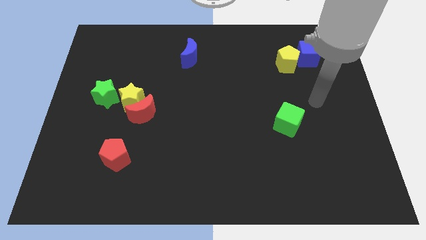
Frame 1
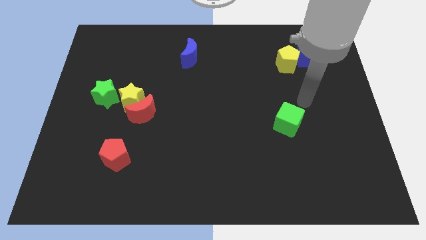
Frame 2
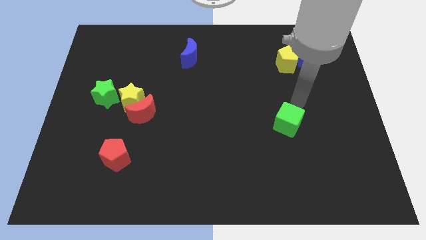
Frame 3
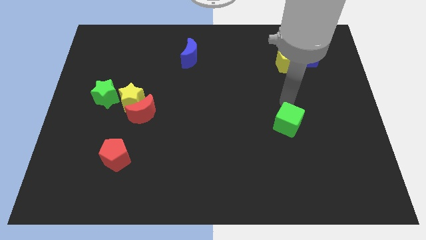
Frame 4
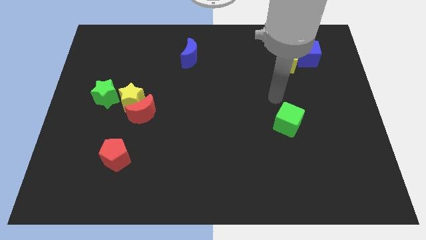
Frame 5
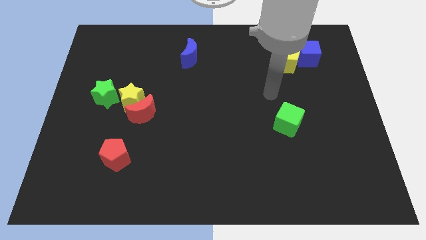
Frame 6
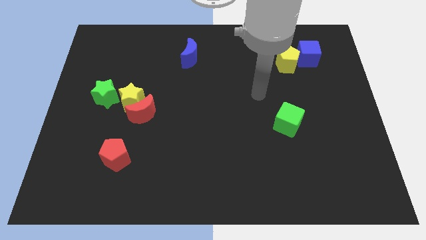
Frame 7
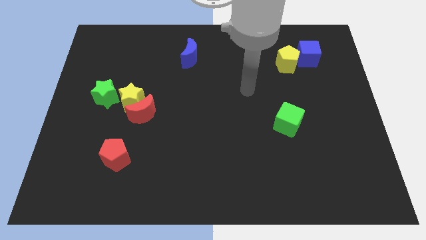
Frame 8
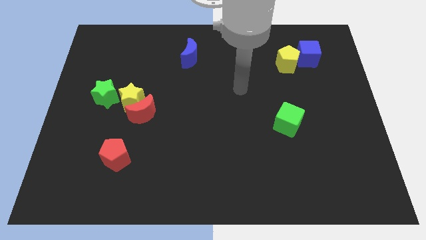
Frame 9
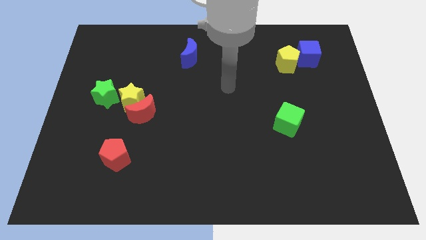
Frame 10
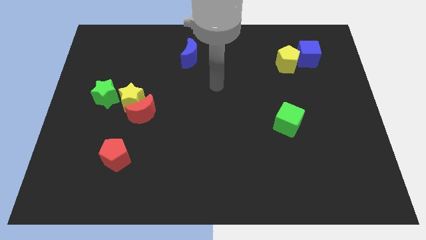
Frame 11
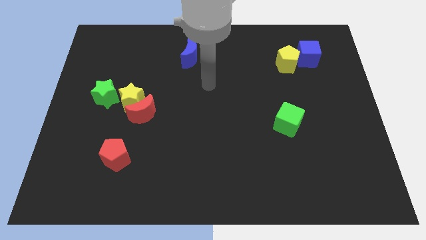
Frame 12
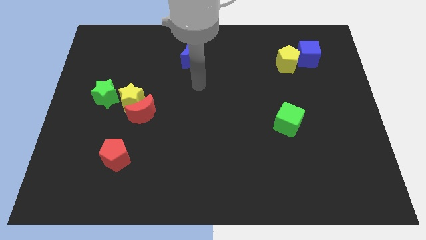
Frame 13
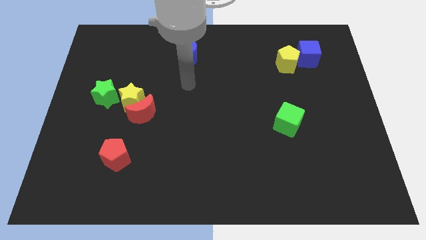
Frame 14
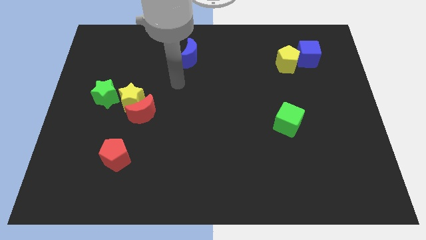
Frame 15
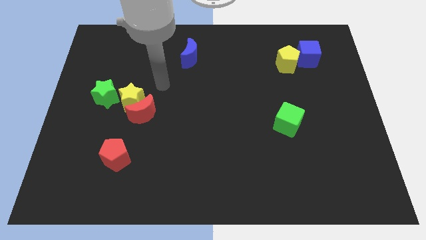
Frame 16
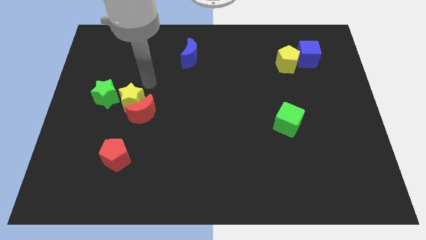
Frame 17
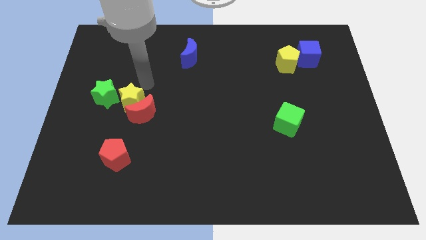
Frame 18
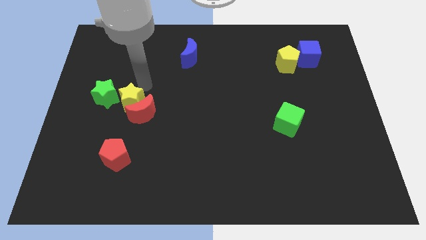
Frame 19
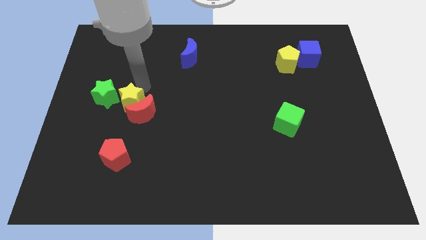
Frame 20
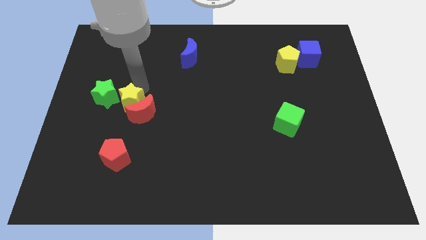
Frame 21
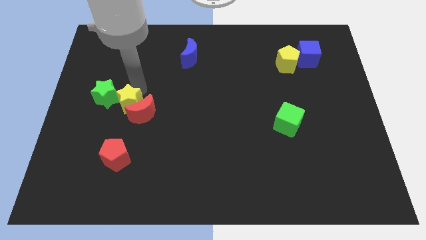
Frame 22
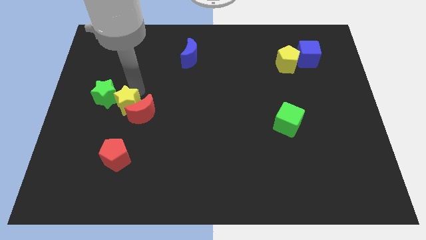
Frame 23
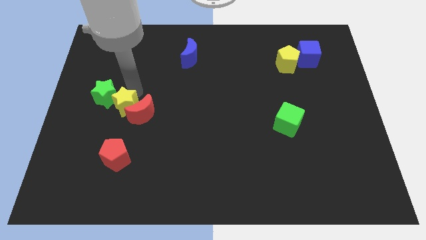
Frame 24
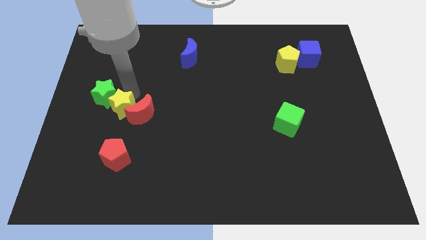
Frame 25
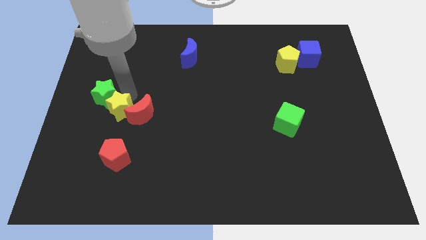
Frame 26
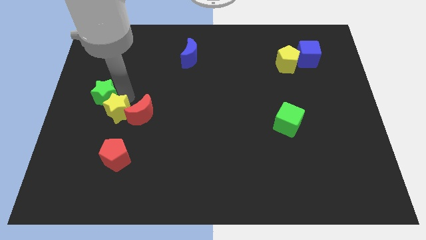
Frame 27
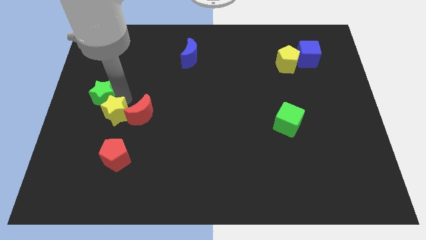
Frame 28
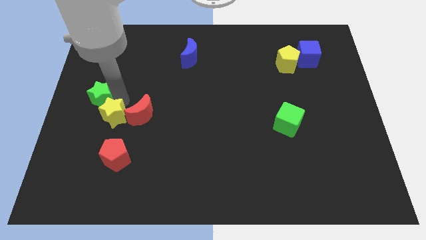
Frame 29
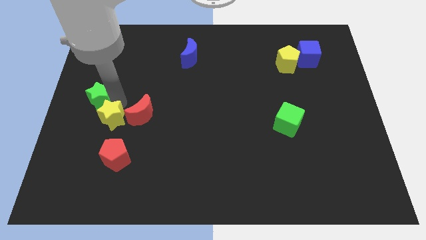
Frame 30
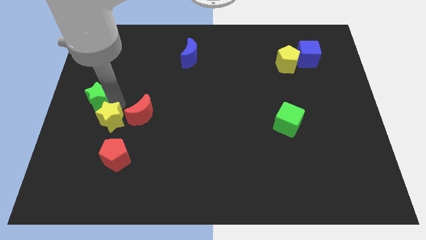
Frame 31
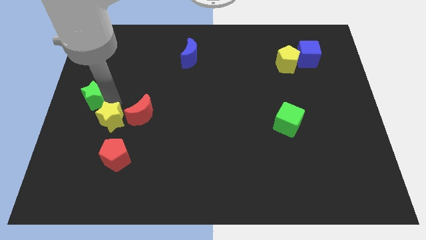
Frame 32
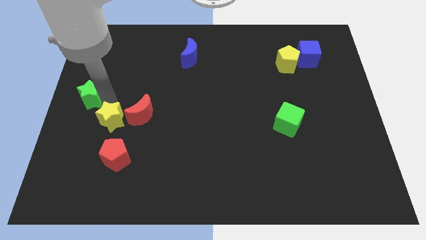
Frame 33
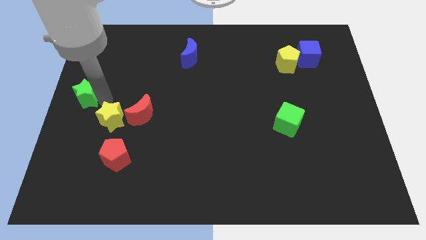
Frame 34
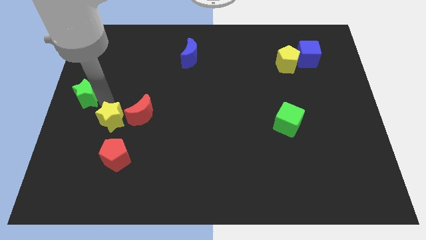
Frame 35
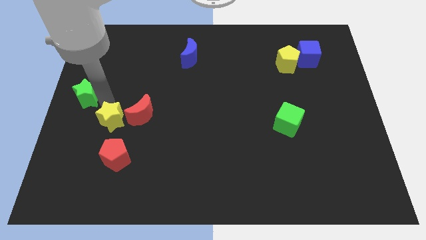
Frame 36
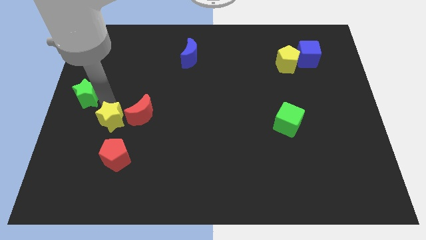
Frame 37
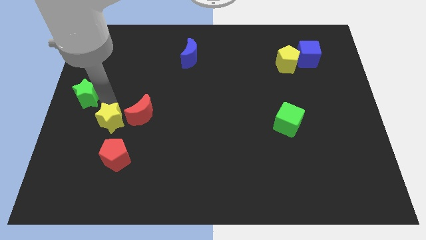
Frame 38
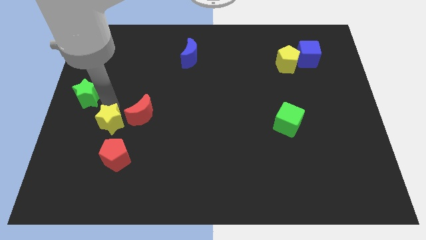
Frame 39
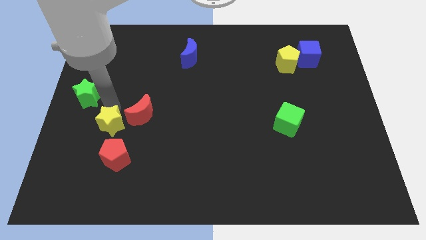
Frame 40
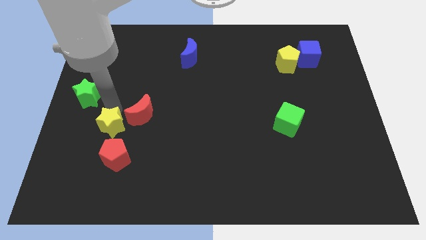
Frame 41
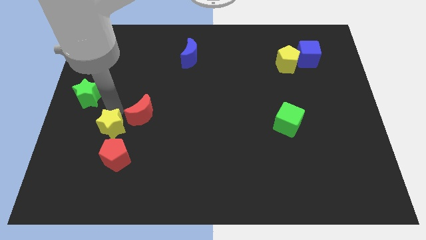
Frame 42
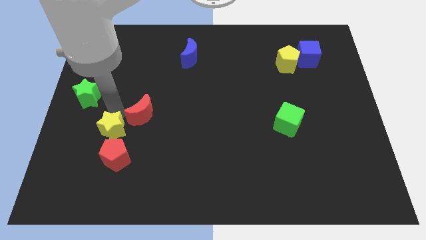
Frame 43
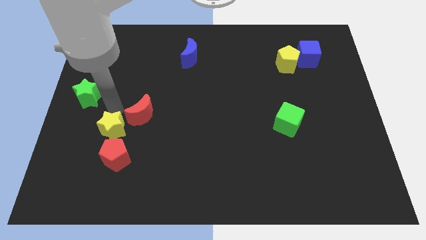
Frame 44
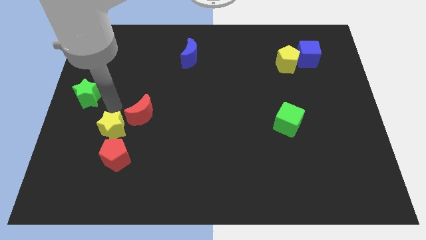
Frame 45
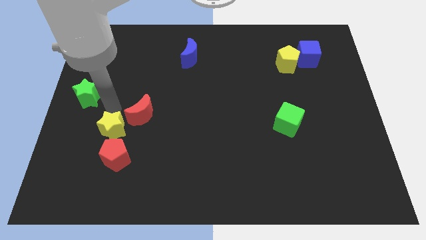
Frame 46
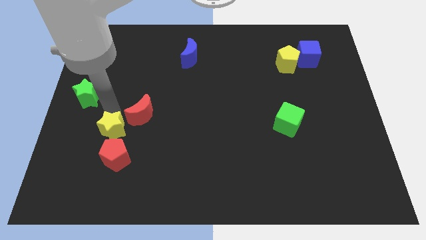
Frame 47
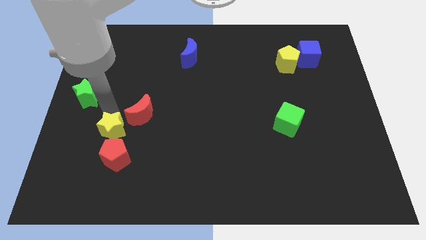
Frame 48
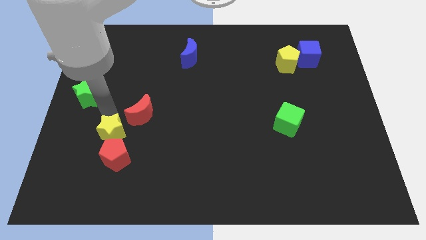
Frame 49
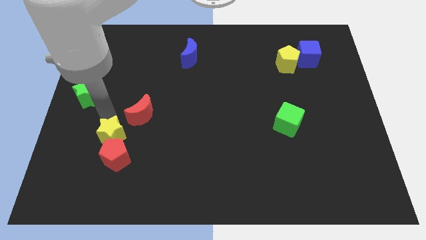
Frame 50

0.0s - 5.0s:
put the yellow star towards the red pentagon

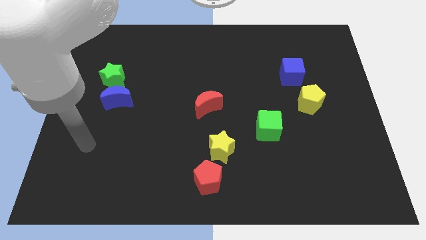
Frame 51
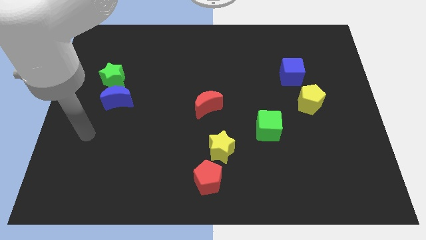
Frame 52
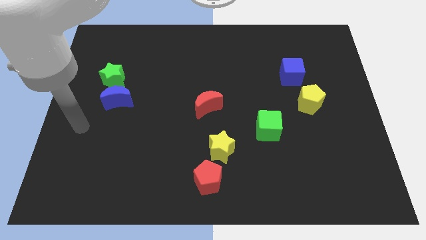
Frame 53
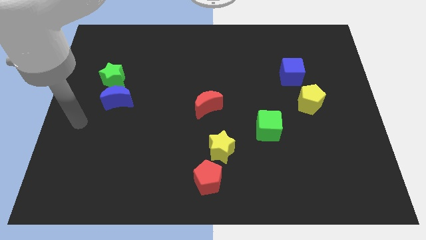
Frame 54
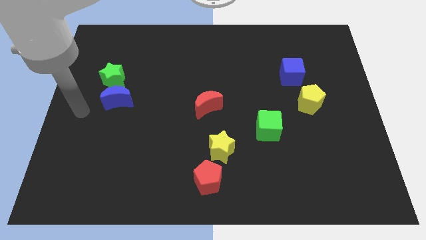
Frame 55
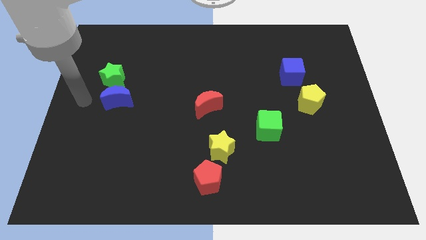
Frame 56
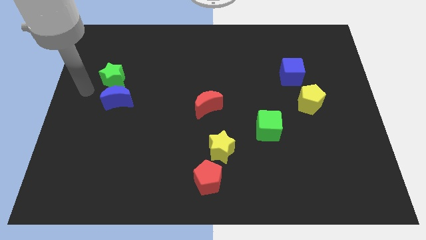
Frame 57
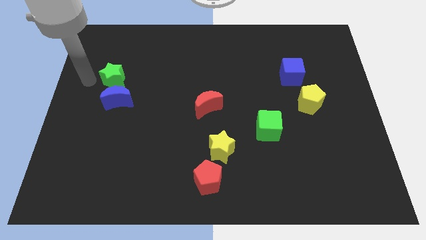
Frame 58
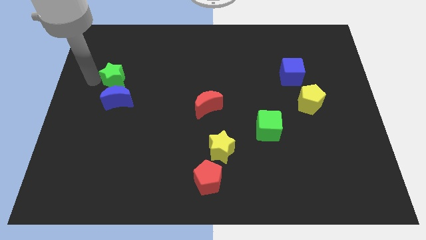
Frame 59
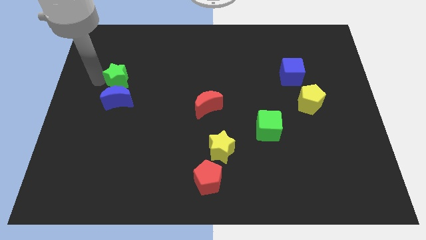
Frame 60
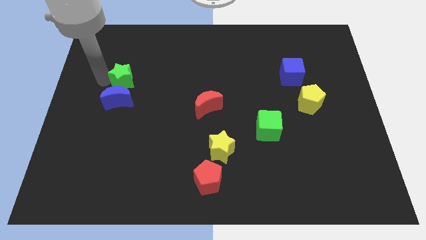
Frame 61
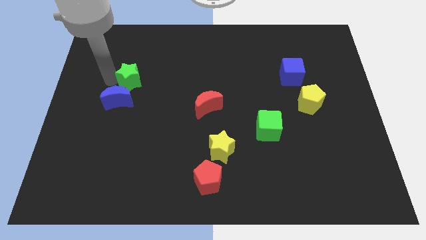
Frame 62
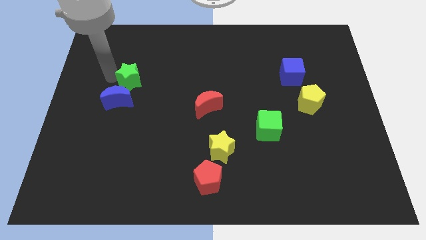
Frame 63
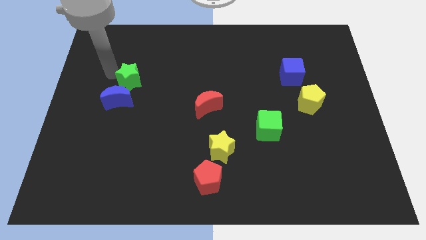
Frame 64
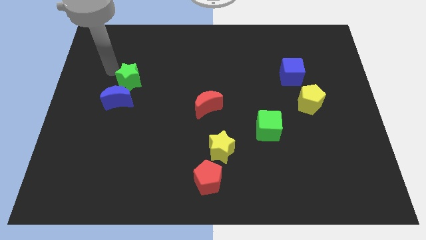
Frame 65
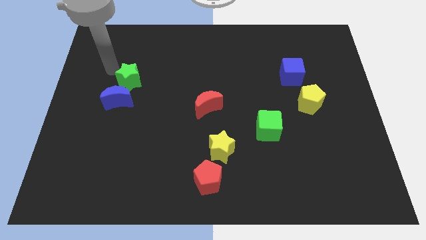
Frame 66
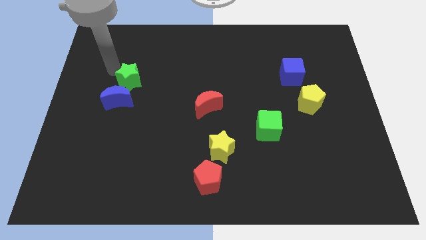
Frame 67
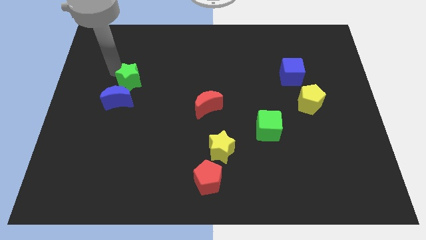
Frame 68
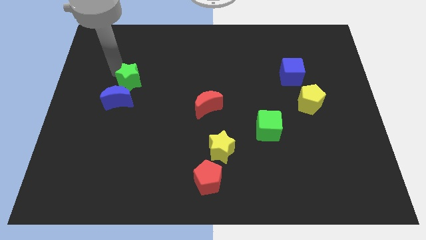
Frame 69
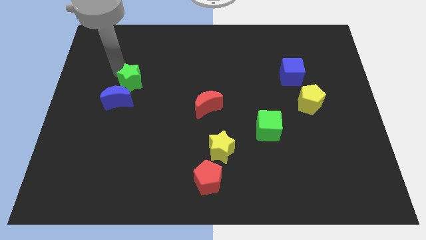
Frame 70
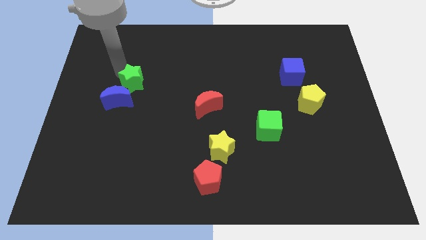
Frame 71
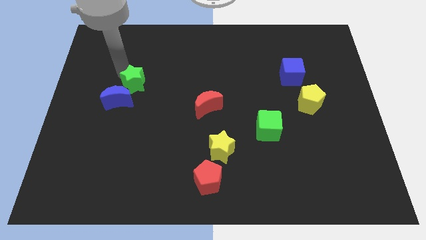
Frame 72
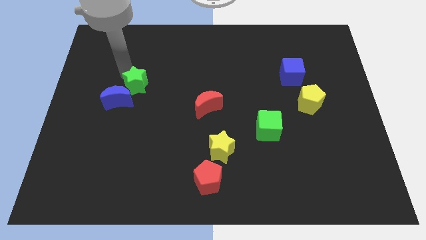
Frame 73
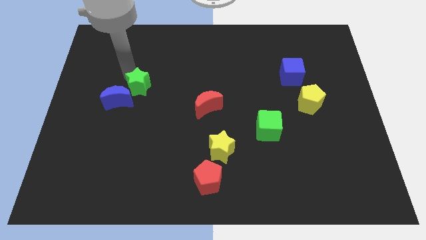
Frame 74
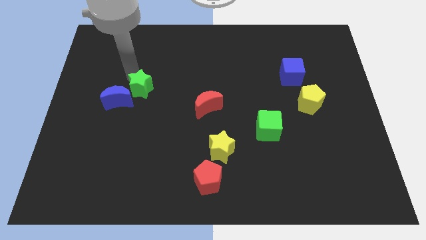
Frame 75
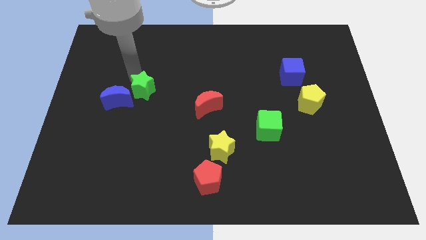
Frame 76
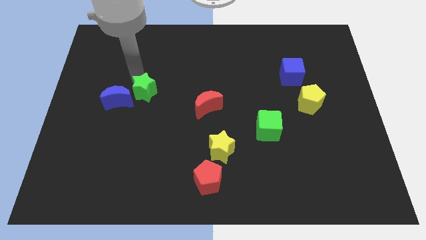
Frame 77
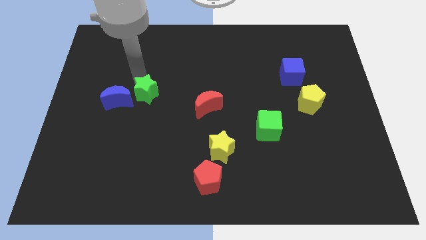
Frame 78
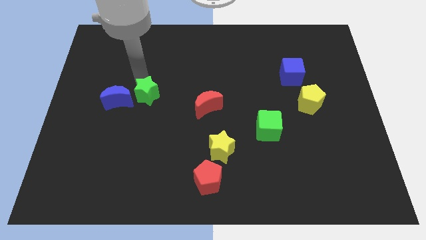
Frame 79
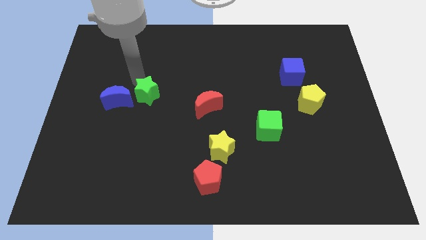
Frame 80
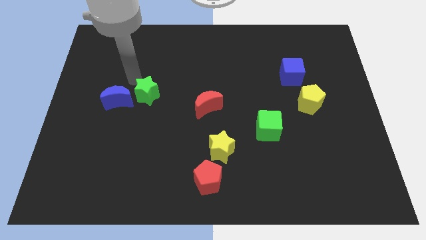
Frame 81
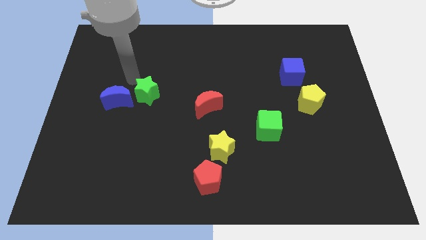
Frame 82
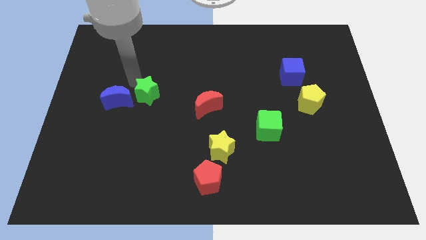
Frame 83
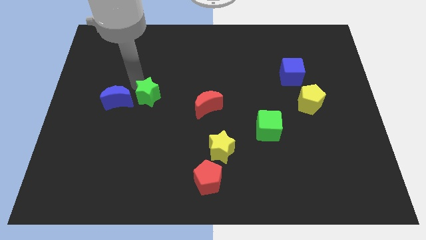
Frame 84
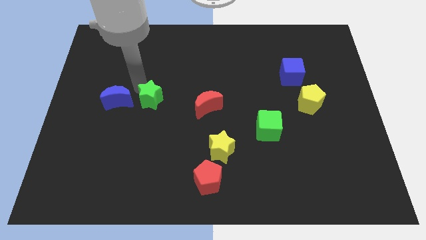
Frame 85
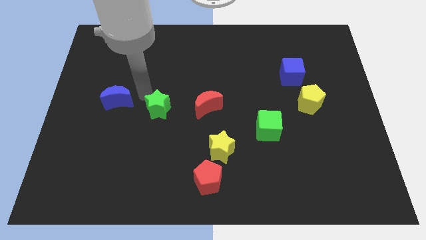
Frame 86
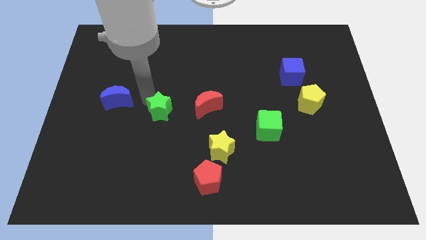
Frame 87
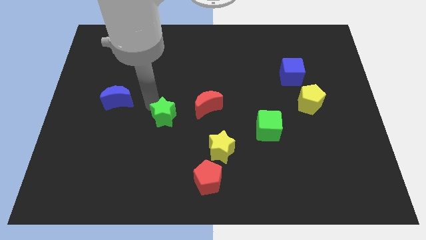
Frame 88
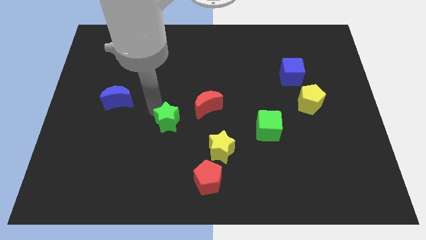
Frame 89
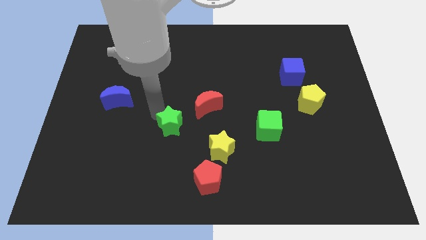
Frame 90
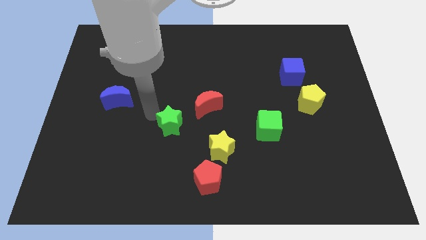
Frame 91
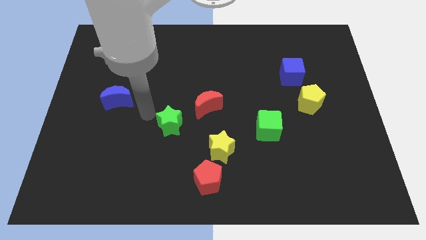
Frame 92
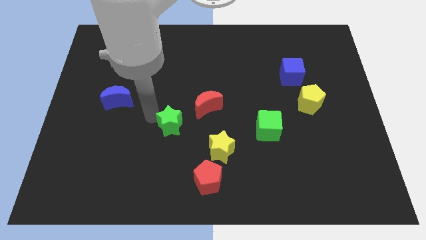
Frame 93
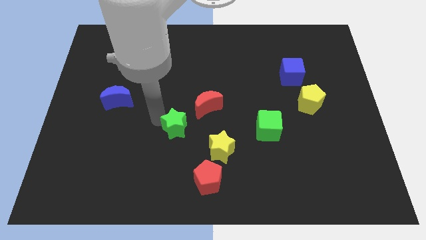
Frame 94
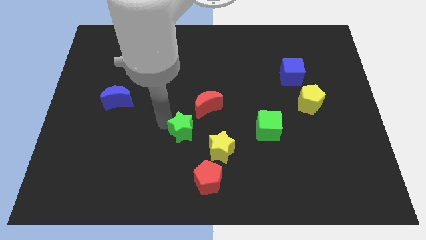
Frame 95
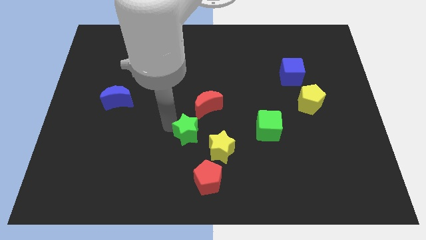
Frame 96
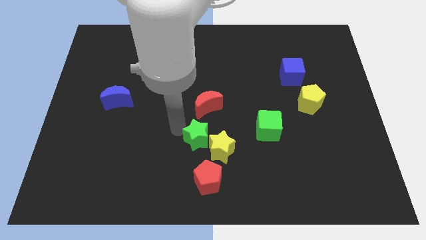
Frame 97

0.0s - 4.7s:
push the green star to the yellow star
